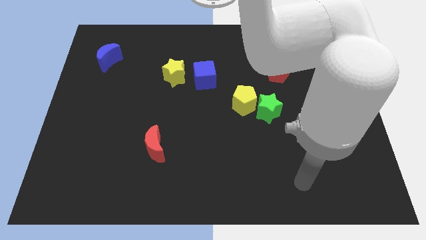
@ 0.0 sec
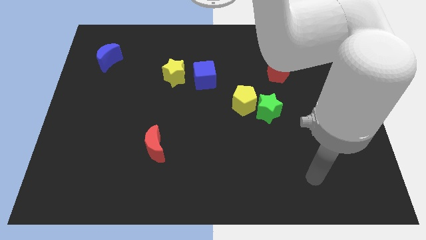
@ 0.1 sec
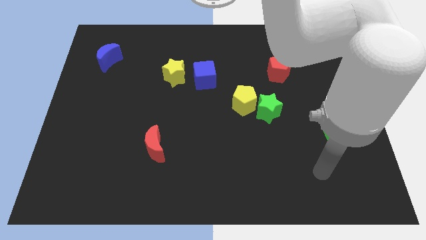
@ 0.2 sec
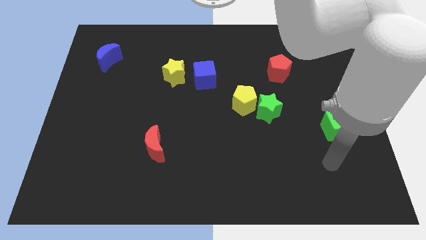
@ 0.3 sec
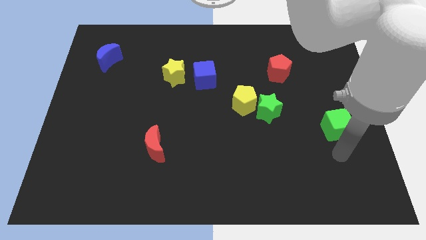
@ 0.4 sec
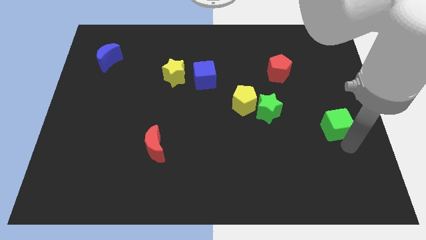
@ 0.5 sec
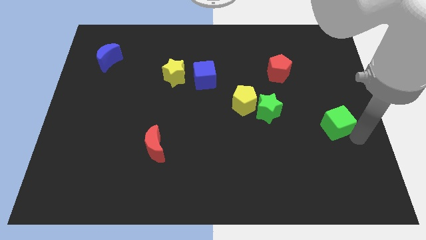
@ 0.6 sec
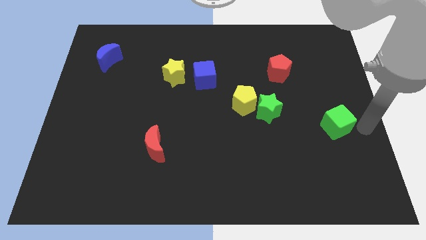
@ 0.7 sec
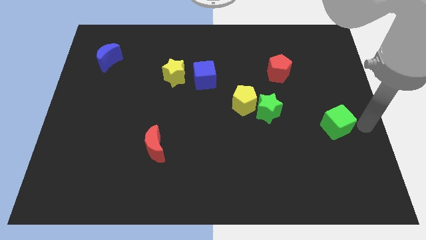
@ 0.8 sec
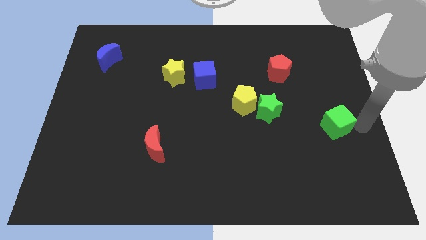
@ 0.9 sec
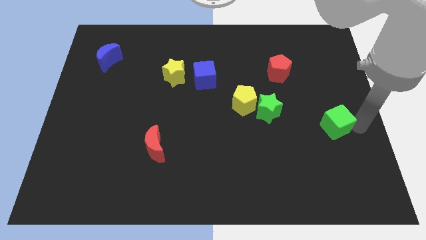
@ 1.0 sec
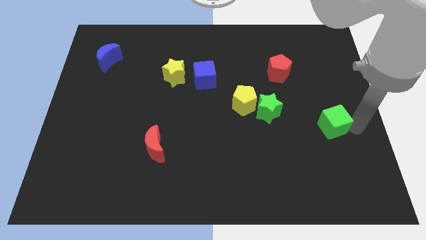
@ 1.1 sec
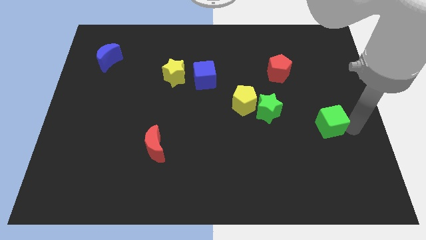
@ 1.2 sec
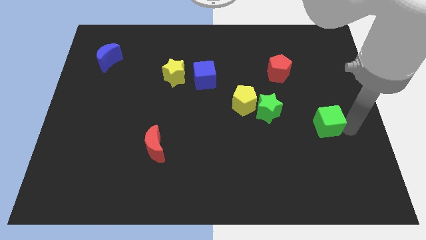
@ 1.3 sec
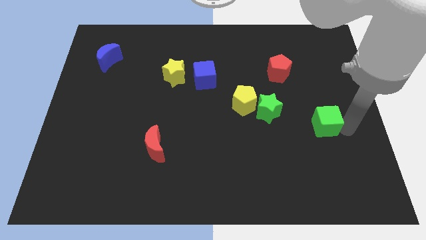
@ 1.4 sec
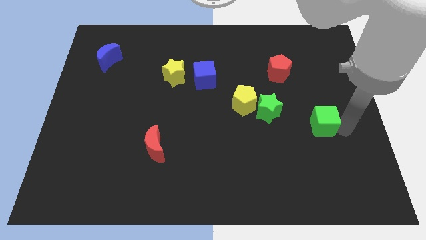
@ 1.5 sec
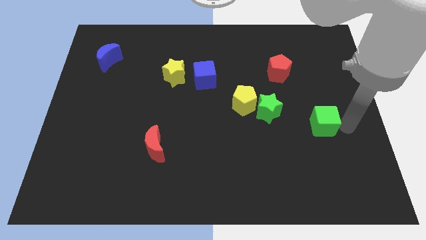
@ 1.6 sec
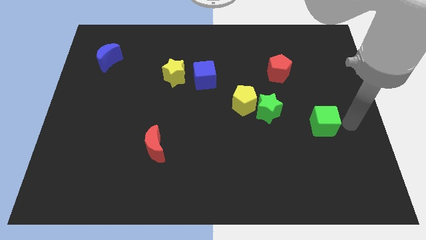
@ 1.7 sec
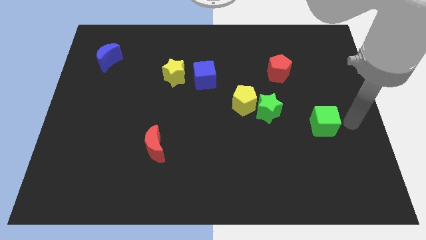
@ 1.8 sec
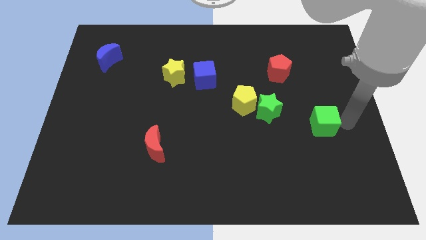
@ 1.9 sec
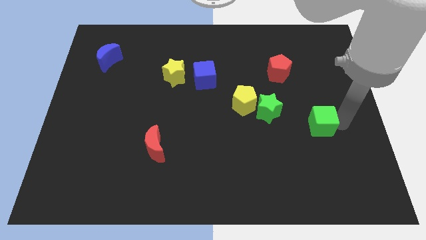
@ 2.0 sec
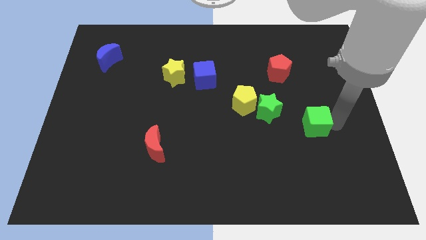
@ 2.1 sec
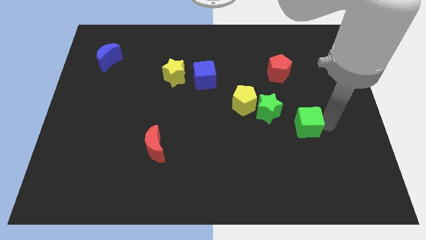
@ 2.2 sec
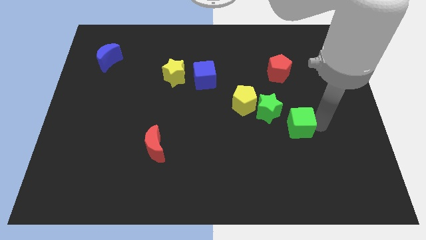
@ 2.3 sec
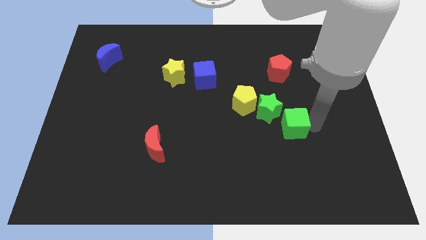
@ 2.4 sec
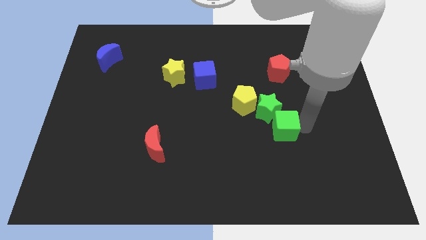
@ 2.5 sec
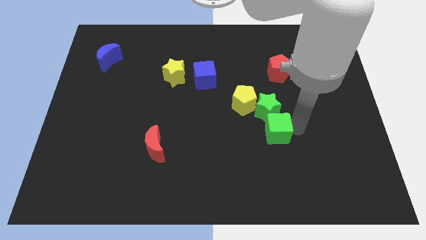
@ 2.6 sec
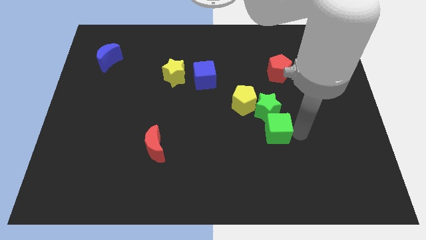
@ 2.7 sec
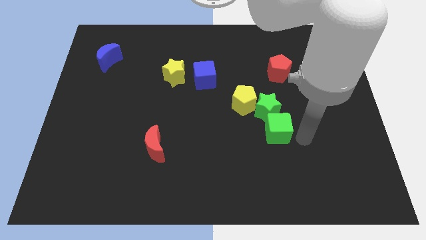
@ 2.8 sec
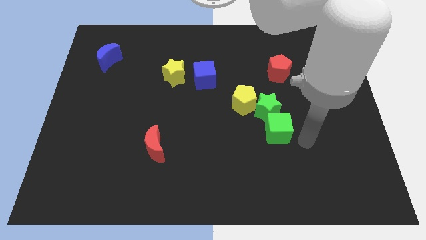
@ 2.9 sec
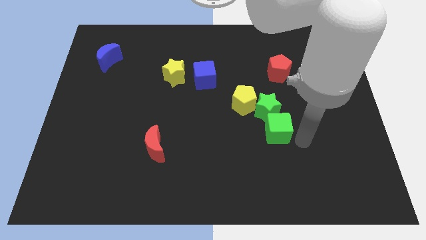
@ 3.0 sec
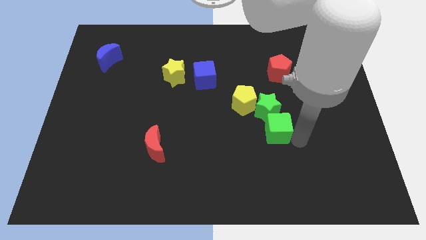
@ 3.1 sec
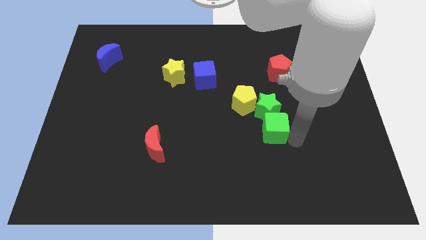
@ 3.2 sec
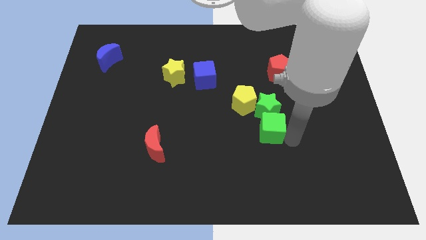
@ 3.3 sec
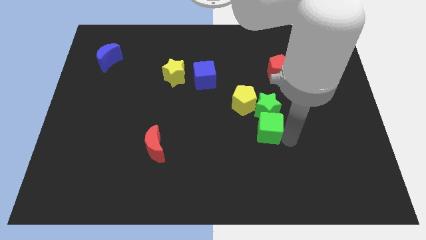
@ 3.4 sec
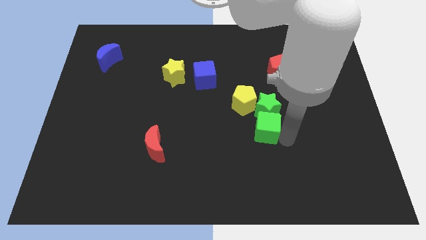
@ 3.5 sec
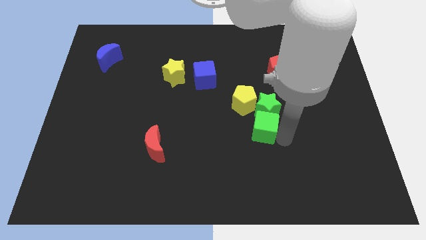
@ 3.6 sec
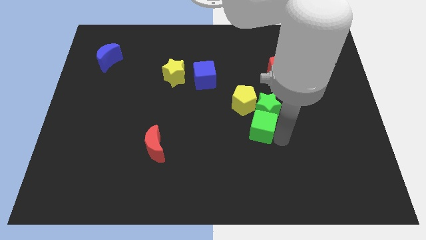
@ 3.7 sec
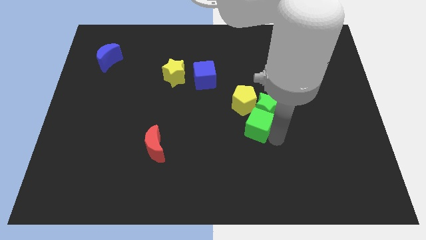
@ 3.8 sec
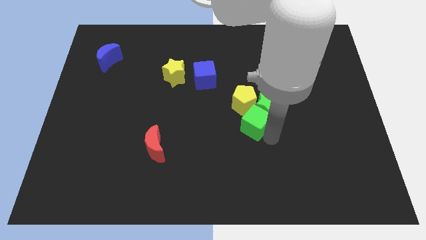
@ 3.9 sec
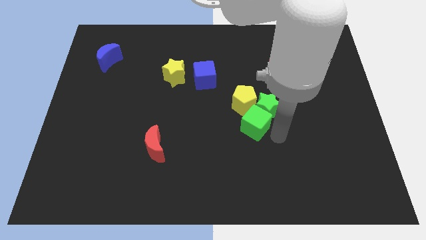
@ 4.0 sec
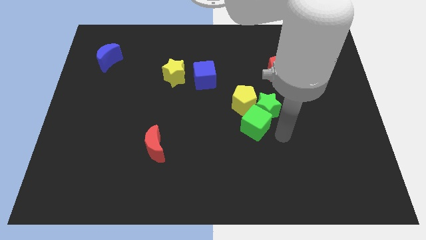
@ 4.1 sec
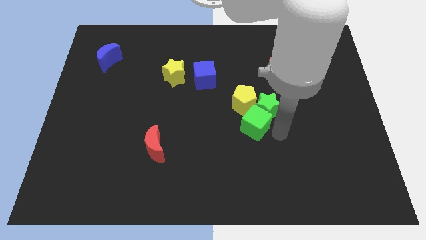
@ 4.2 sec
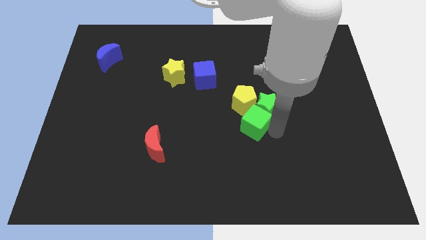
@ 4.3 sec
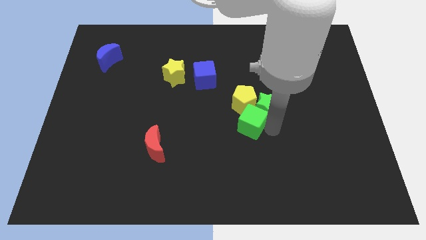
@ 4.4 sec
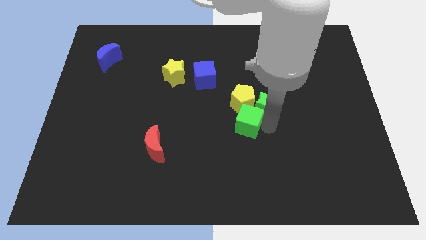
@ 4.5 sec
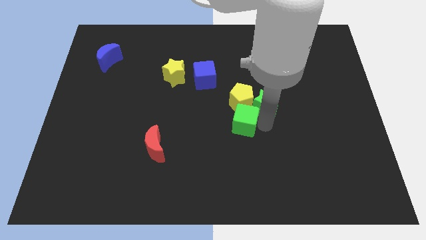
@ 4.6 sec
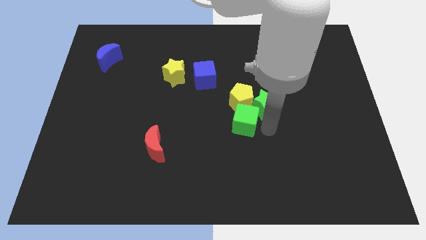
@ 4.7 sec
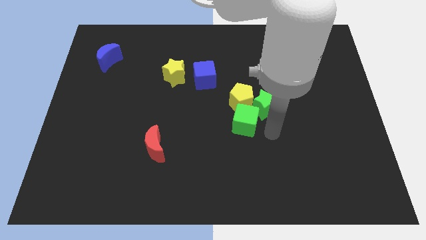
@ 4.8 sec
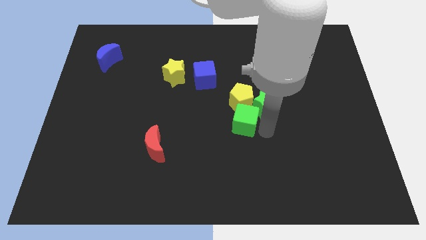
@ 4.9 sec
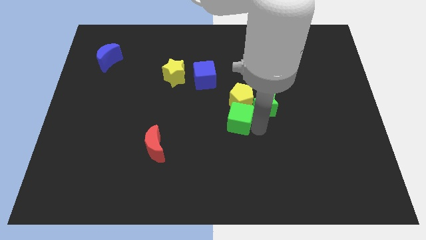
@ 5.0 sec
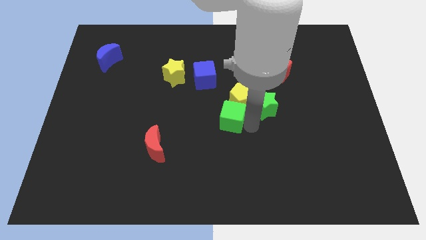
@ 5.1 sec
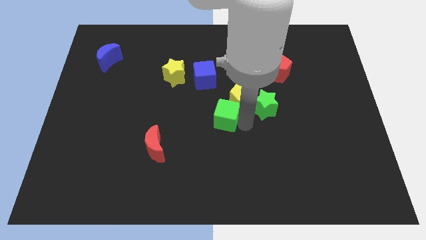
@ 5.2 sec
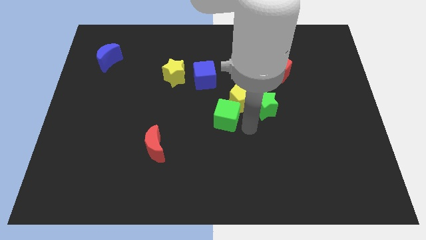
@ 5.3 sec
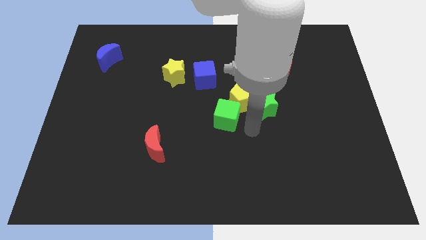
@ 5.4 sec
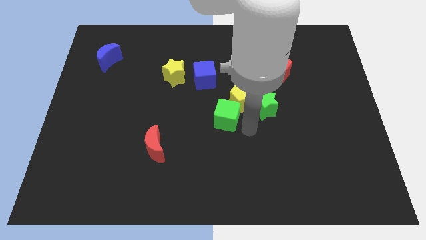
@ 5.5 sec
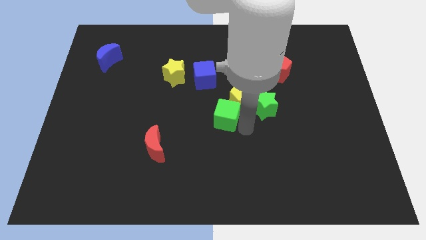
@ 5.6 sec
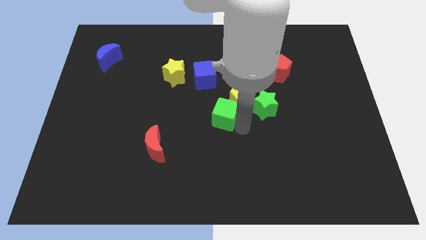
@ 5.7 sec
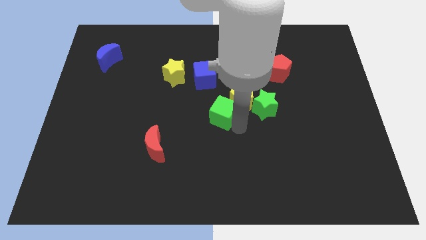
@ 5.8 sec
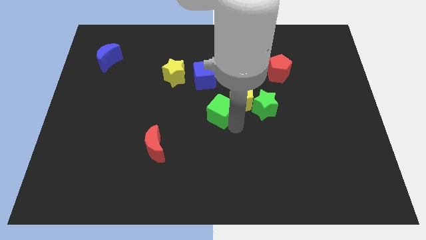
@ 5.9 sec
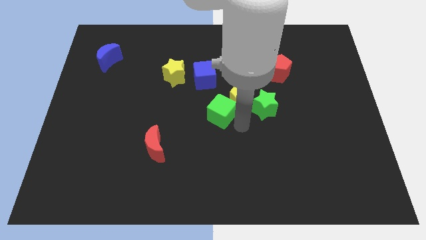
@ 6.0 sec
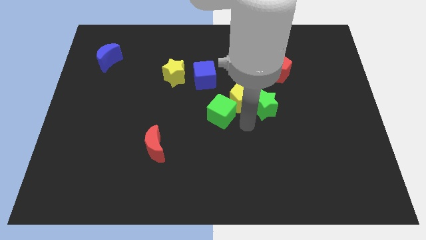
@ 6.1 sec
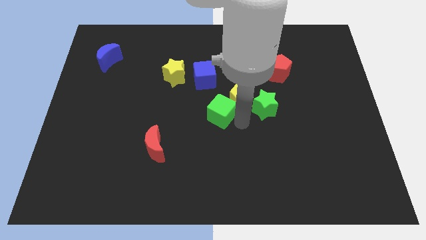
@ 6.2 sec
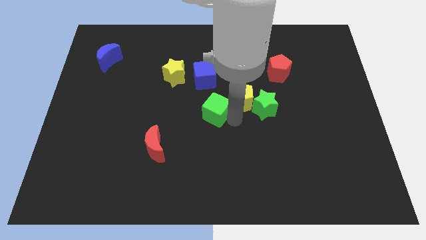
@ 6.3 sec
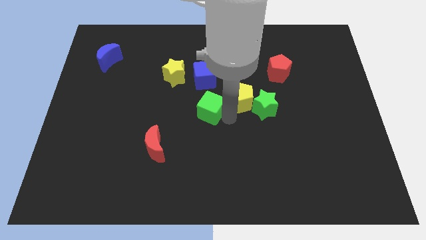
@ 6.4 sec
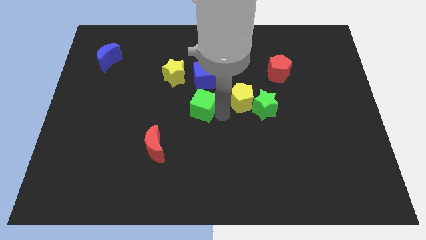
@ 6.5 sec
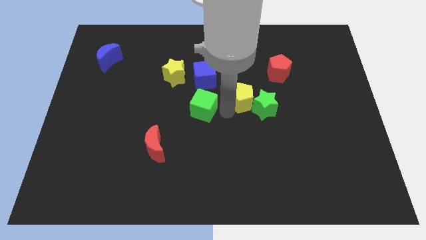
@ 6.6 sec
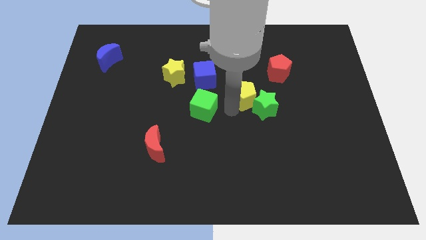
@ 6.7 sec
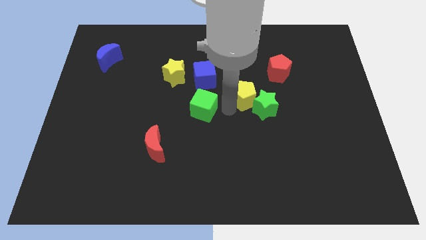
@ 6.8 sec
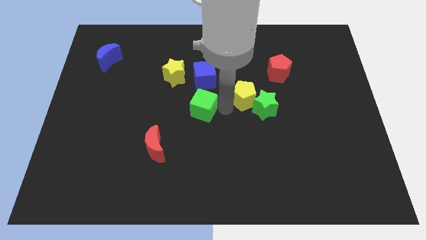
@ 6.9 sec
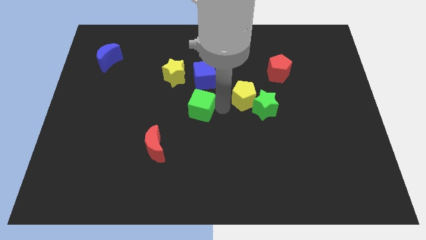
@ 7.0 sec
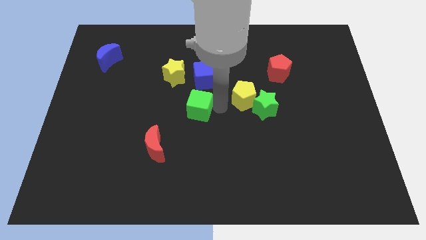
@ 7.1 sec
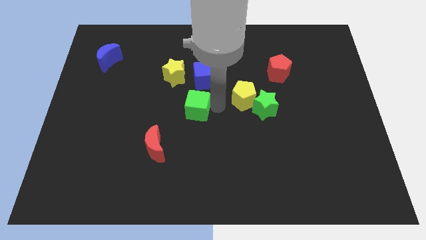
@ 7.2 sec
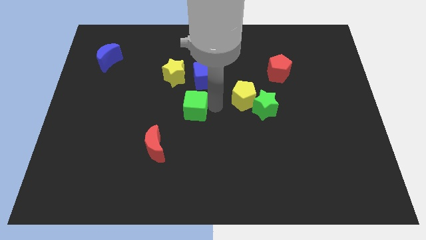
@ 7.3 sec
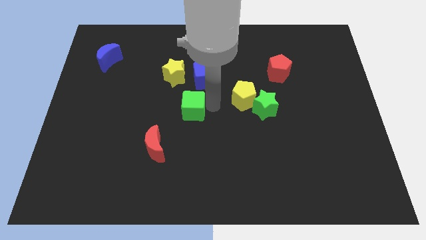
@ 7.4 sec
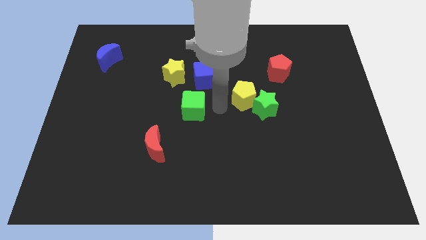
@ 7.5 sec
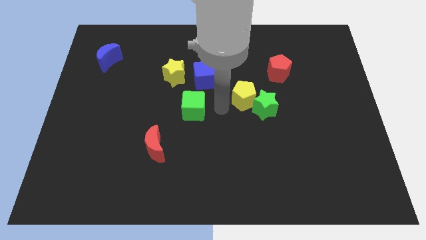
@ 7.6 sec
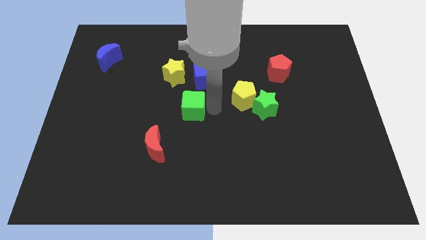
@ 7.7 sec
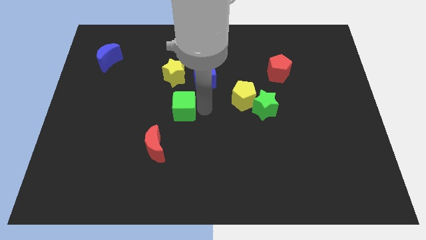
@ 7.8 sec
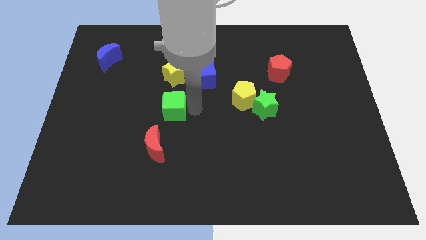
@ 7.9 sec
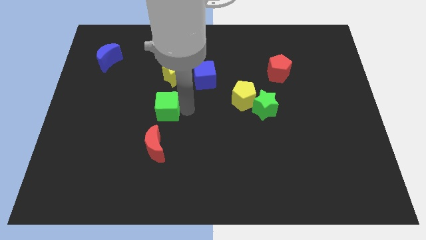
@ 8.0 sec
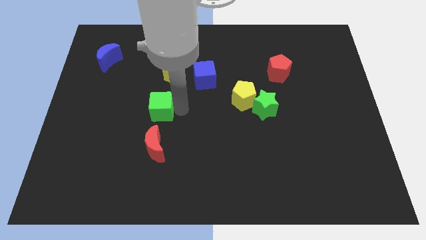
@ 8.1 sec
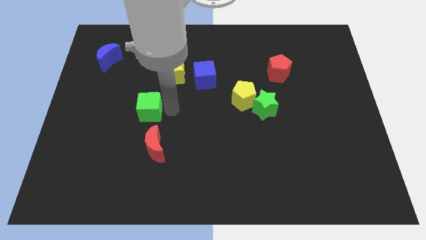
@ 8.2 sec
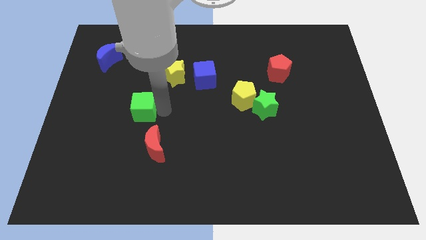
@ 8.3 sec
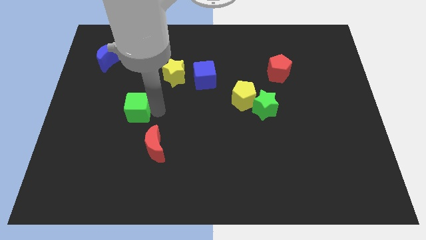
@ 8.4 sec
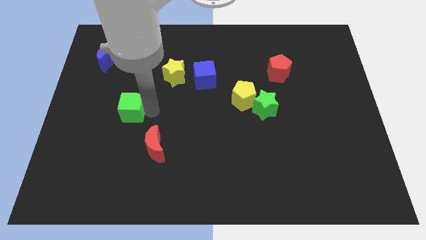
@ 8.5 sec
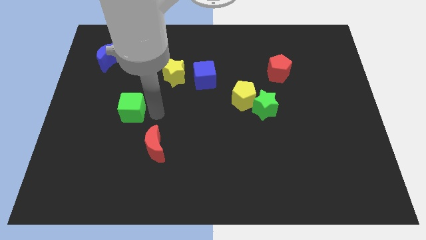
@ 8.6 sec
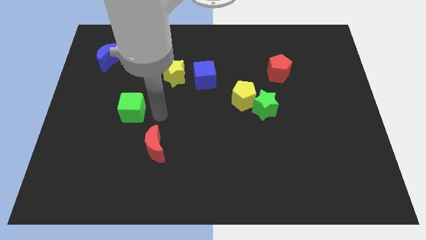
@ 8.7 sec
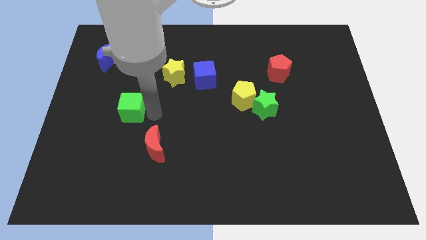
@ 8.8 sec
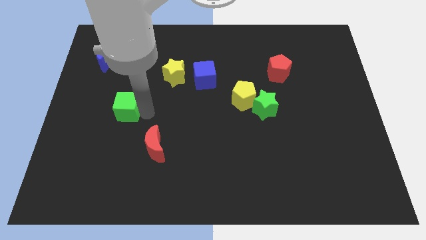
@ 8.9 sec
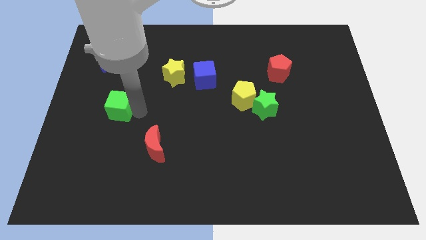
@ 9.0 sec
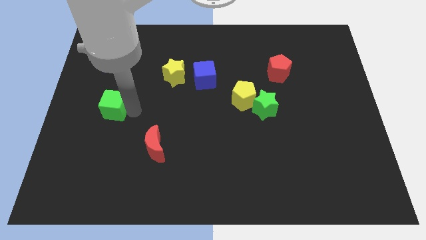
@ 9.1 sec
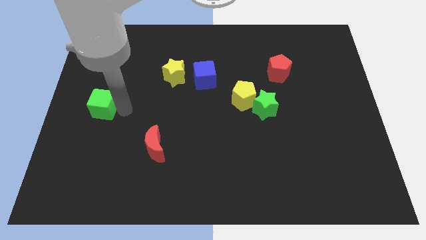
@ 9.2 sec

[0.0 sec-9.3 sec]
push the green cube to the left side
